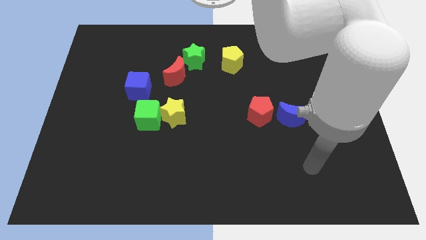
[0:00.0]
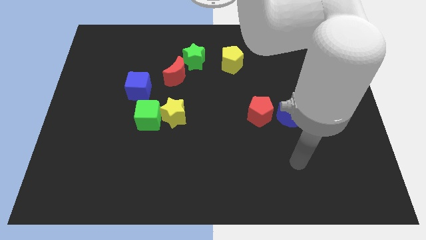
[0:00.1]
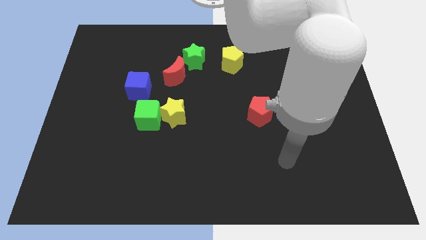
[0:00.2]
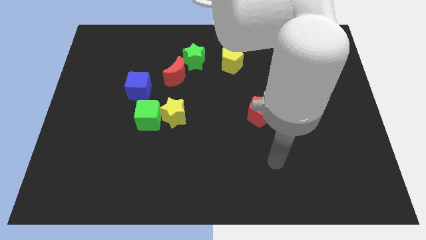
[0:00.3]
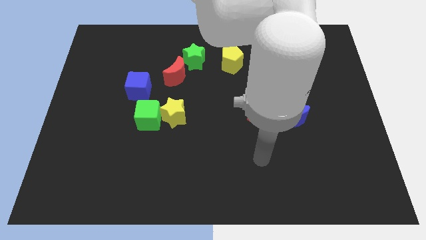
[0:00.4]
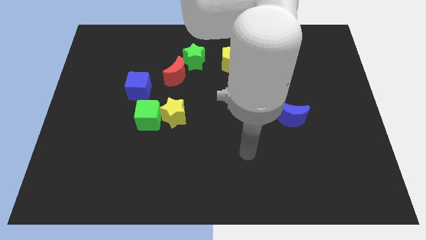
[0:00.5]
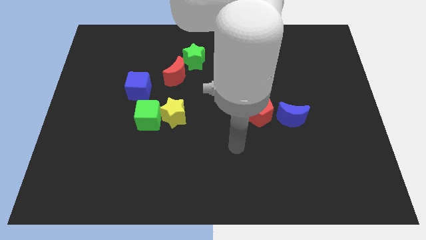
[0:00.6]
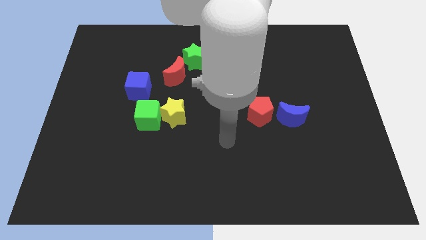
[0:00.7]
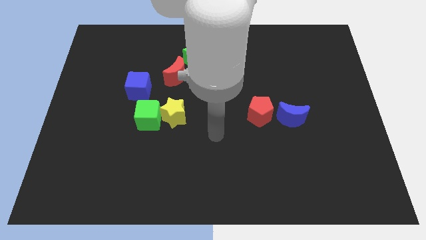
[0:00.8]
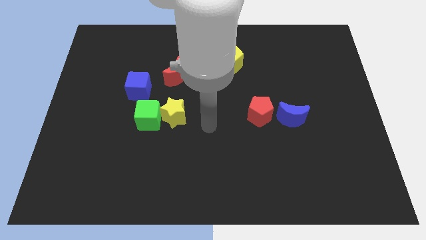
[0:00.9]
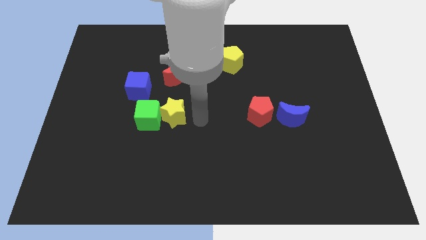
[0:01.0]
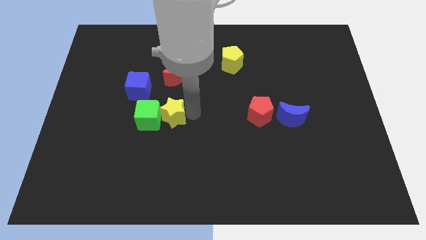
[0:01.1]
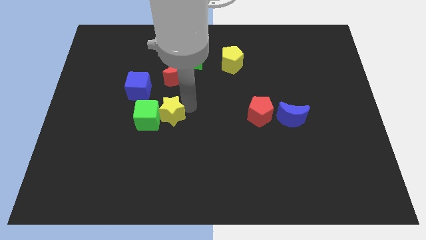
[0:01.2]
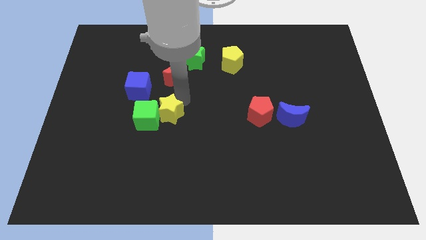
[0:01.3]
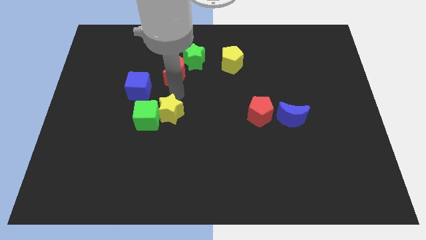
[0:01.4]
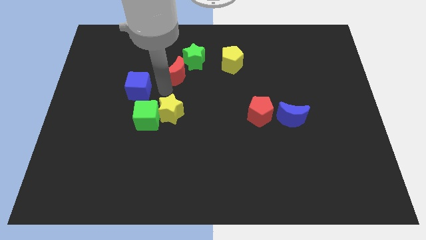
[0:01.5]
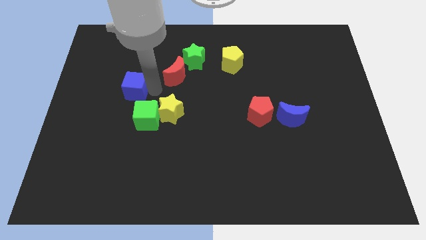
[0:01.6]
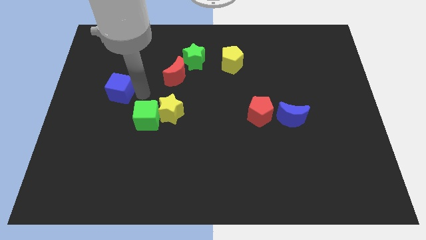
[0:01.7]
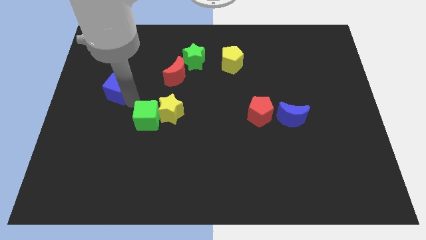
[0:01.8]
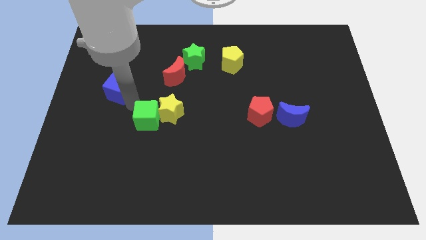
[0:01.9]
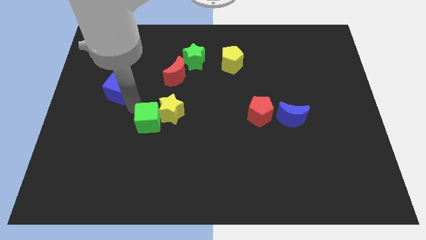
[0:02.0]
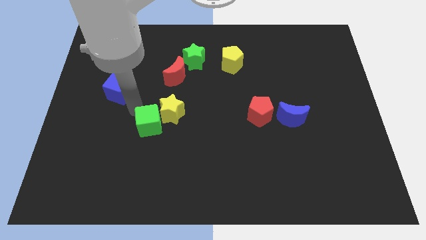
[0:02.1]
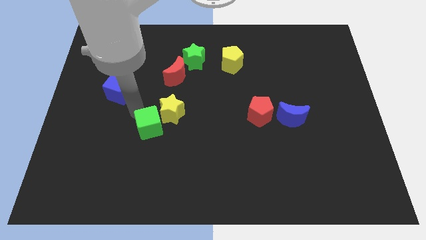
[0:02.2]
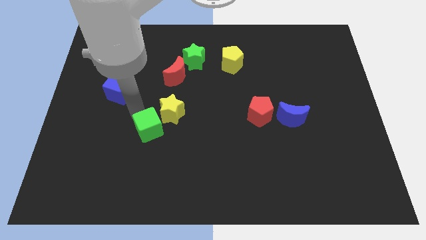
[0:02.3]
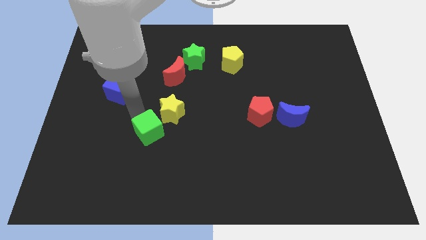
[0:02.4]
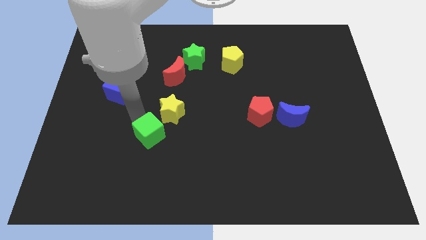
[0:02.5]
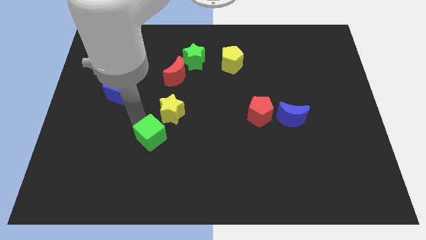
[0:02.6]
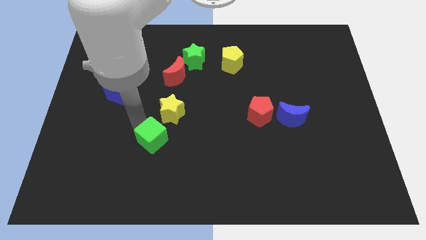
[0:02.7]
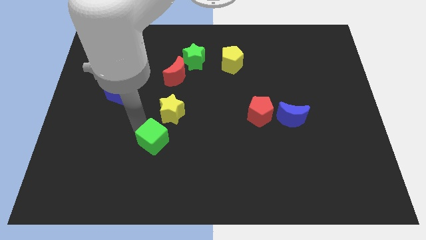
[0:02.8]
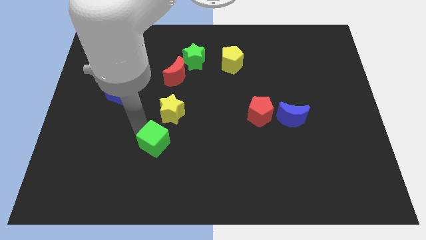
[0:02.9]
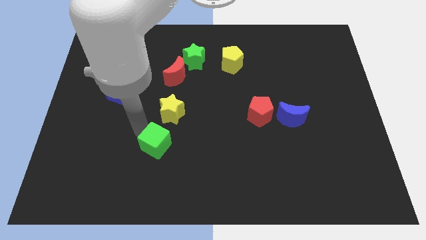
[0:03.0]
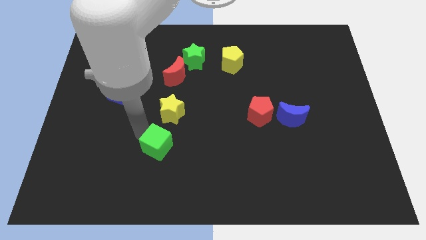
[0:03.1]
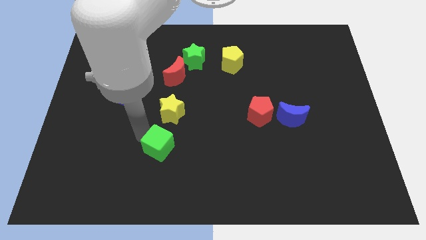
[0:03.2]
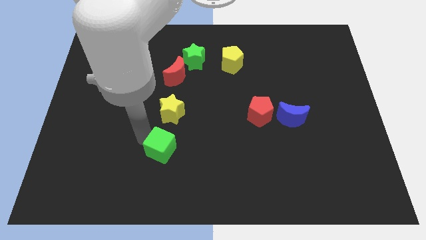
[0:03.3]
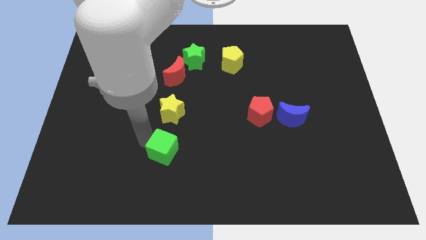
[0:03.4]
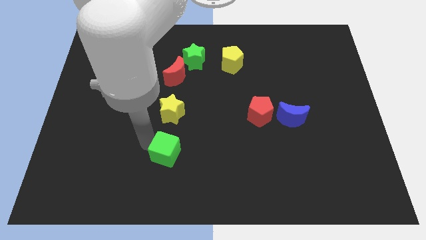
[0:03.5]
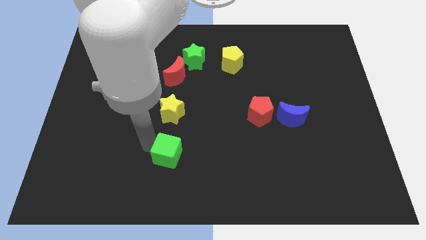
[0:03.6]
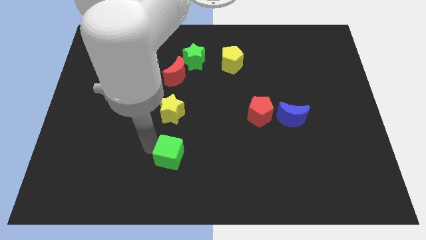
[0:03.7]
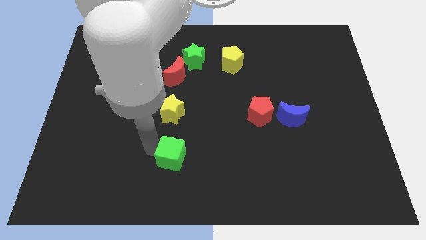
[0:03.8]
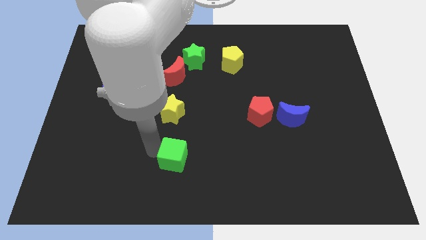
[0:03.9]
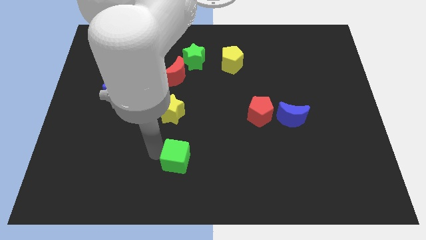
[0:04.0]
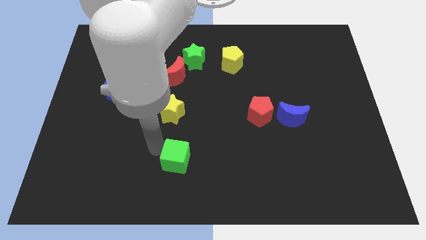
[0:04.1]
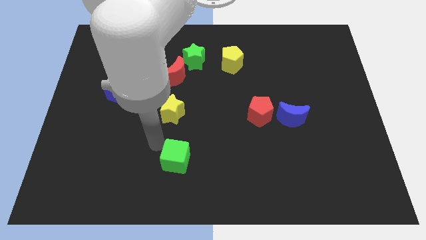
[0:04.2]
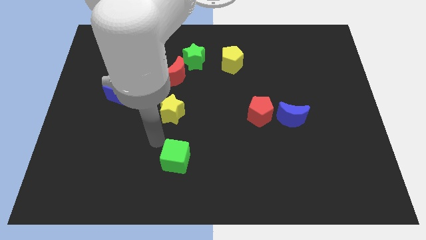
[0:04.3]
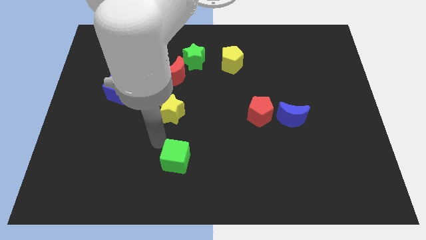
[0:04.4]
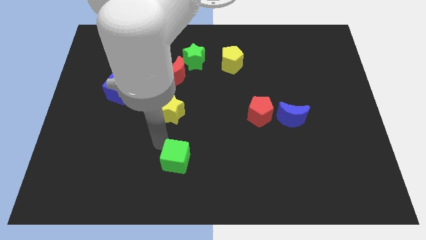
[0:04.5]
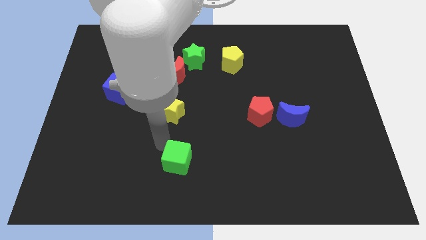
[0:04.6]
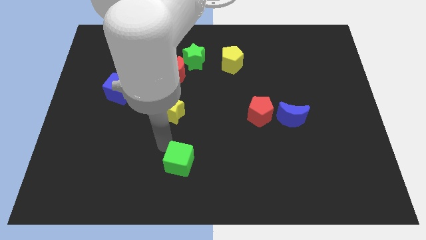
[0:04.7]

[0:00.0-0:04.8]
move the green cube to the bottom side

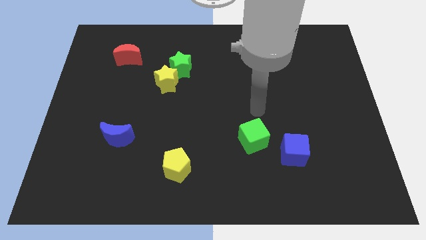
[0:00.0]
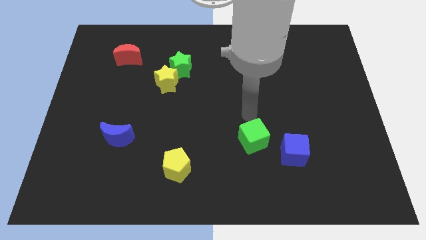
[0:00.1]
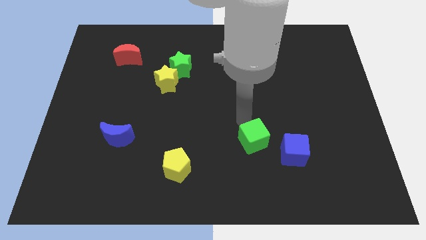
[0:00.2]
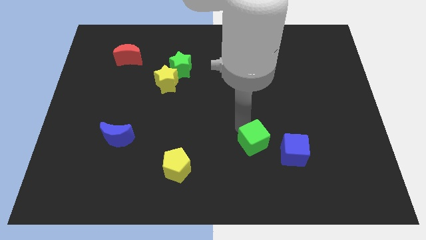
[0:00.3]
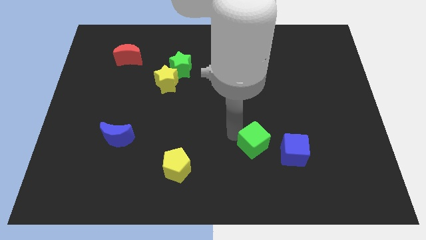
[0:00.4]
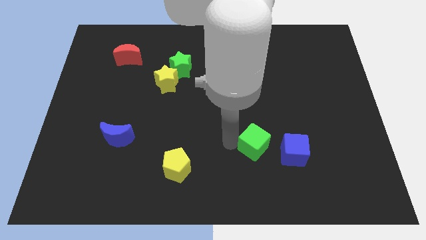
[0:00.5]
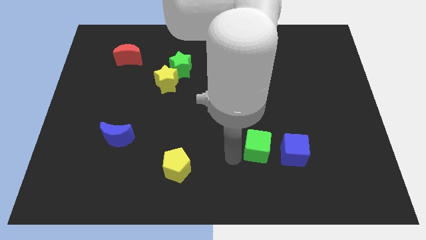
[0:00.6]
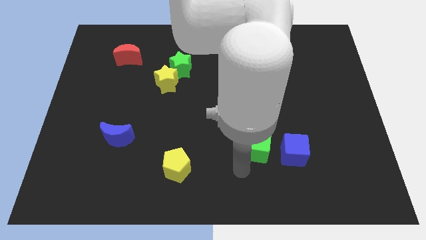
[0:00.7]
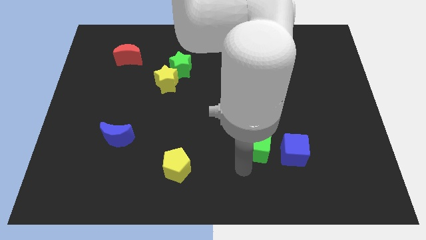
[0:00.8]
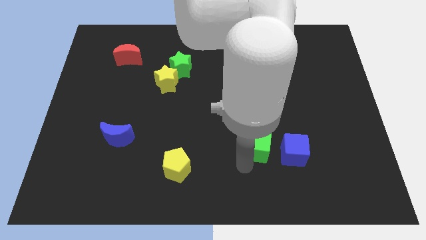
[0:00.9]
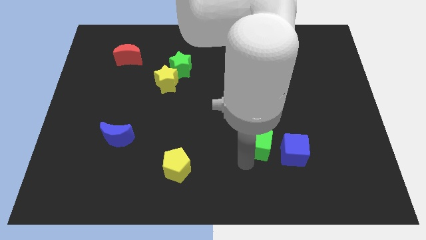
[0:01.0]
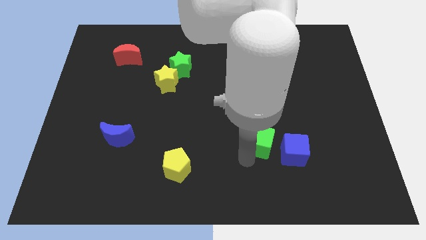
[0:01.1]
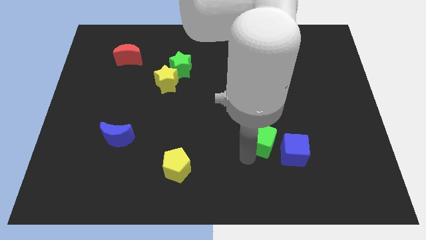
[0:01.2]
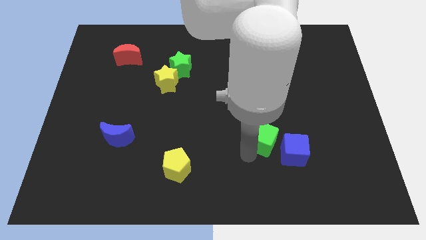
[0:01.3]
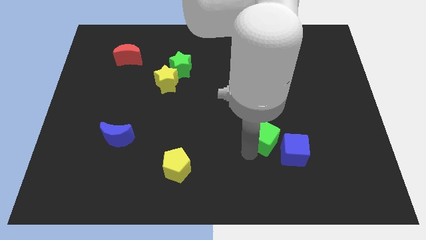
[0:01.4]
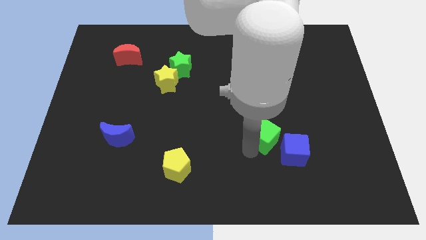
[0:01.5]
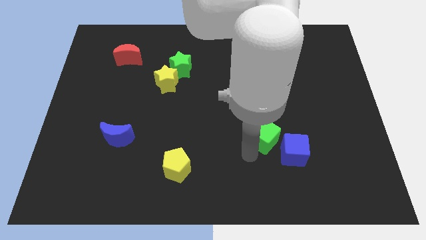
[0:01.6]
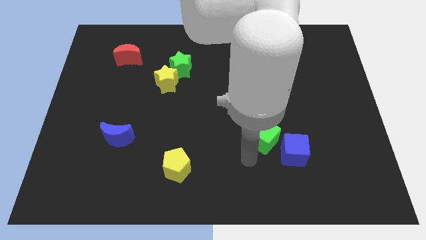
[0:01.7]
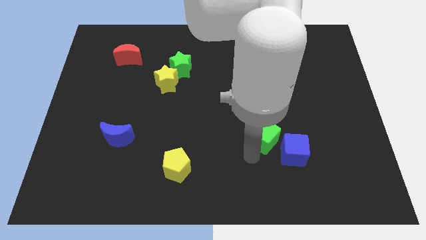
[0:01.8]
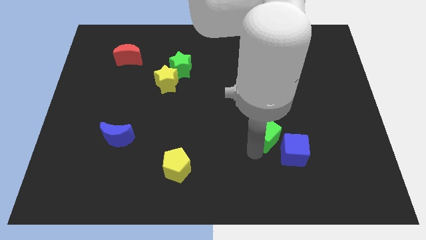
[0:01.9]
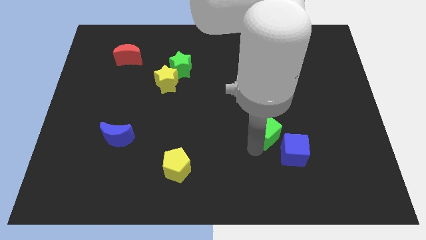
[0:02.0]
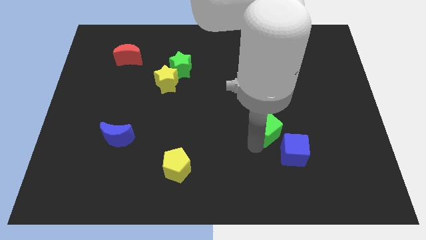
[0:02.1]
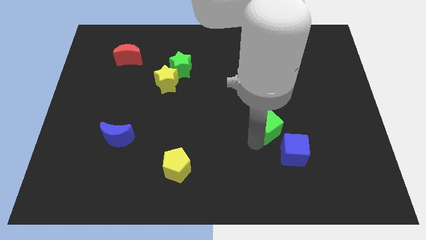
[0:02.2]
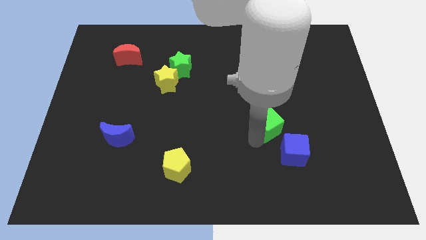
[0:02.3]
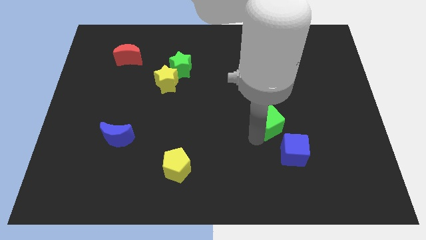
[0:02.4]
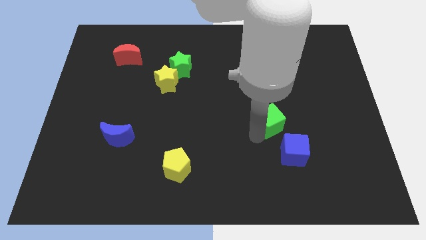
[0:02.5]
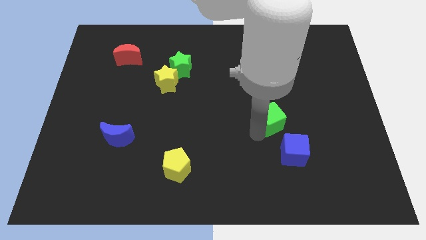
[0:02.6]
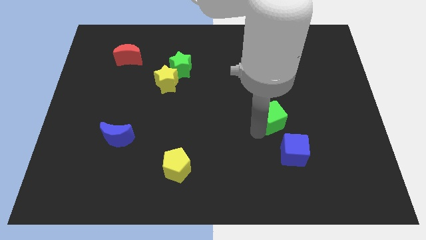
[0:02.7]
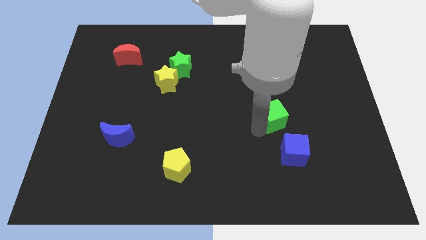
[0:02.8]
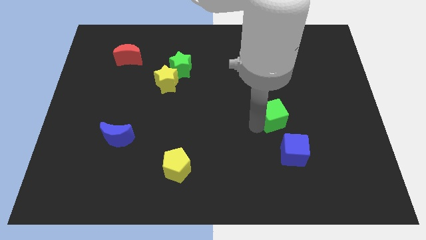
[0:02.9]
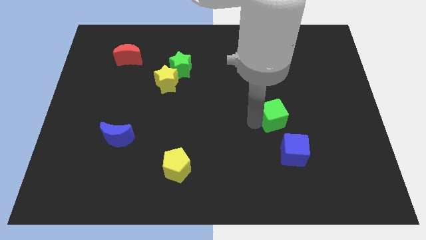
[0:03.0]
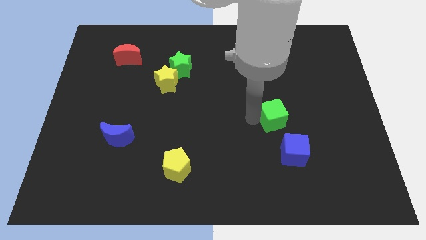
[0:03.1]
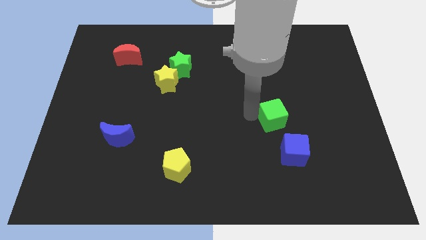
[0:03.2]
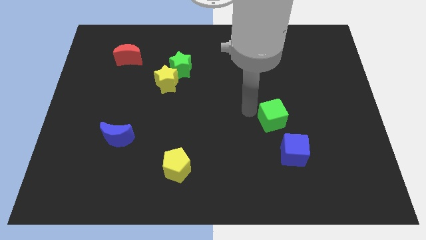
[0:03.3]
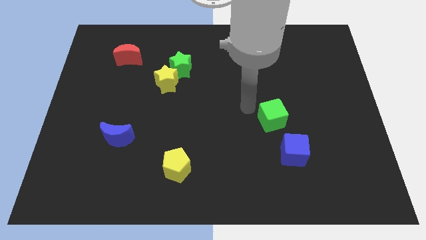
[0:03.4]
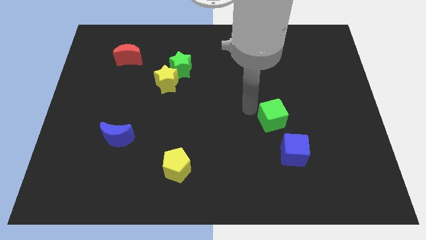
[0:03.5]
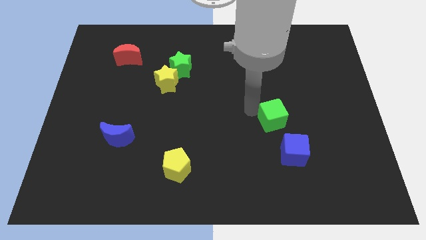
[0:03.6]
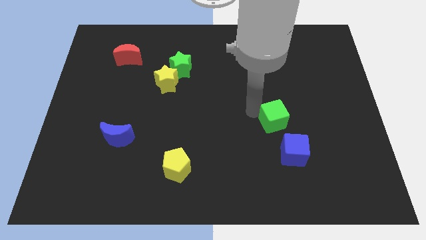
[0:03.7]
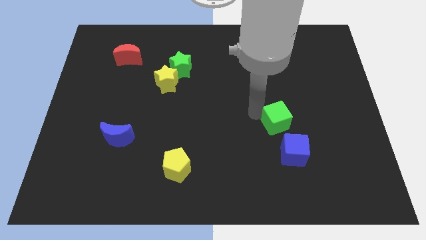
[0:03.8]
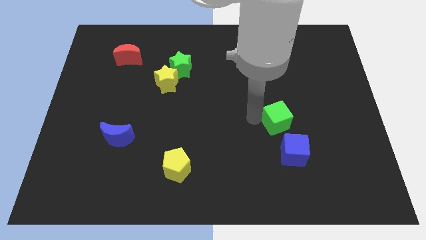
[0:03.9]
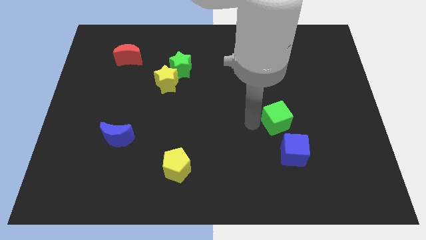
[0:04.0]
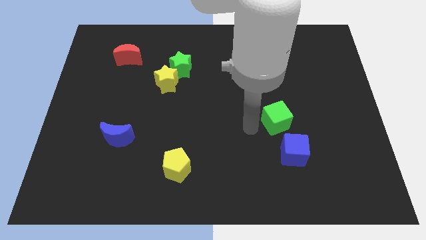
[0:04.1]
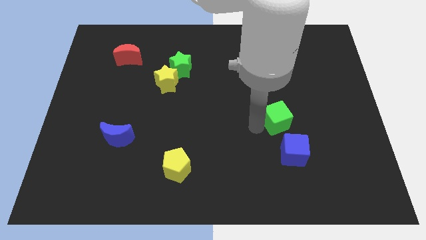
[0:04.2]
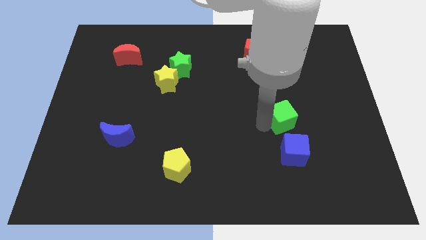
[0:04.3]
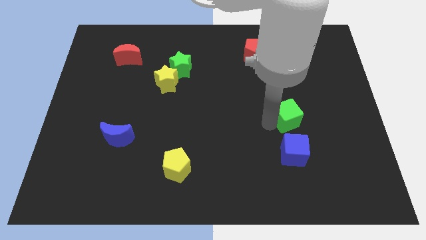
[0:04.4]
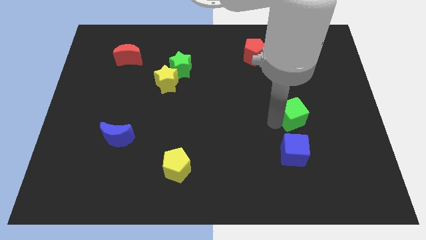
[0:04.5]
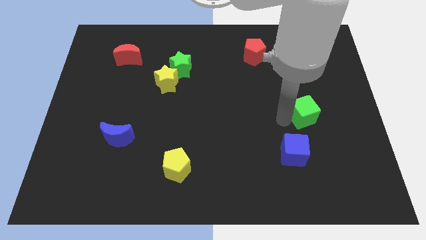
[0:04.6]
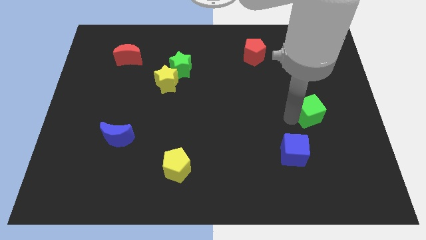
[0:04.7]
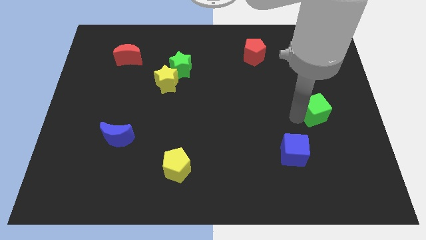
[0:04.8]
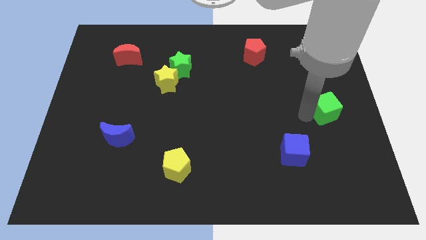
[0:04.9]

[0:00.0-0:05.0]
push the green cube to the right side
